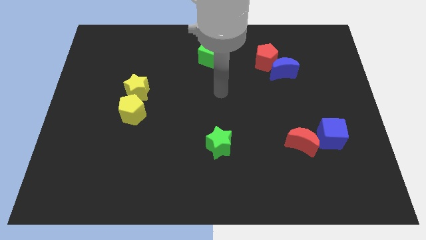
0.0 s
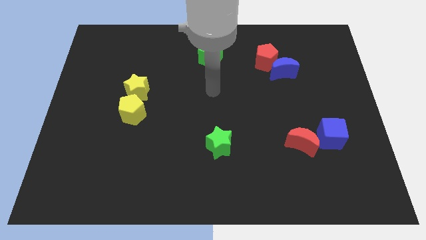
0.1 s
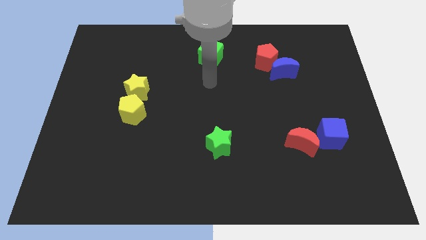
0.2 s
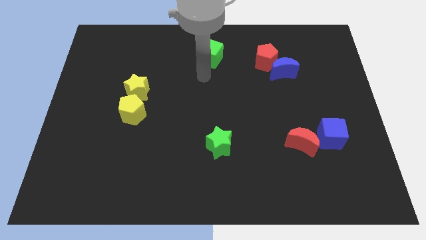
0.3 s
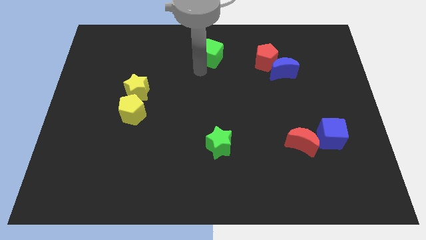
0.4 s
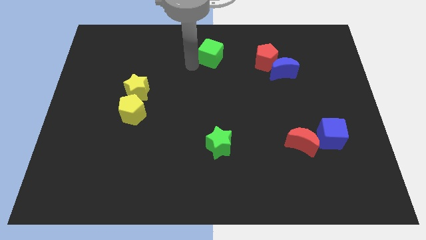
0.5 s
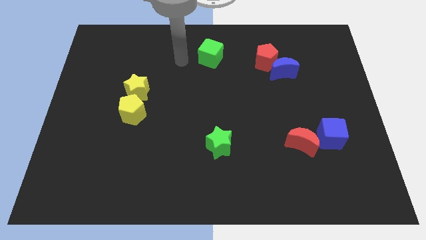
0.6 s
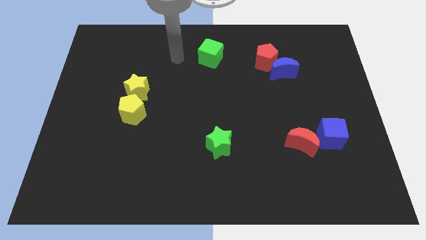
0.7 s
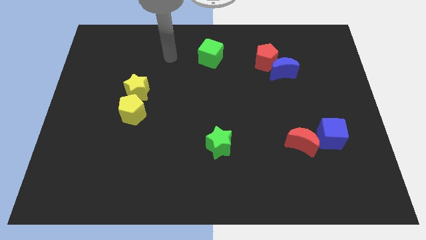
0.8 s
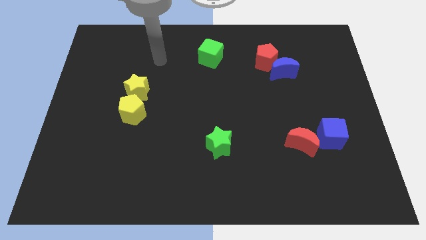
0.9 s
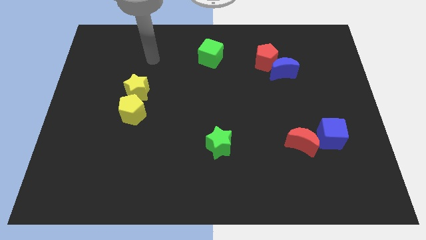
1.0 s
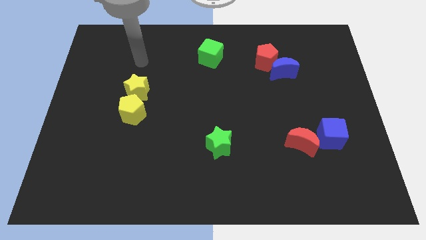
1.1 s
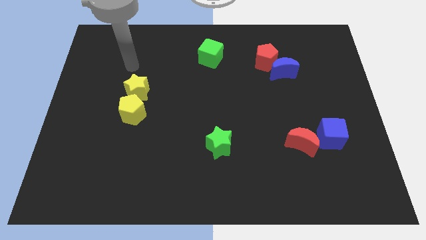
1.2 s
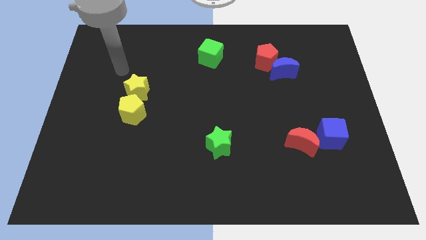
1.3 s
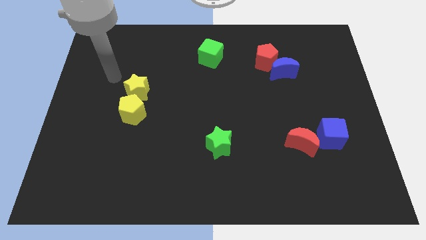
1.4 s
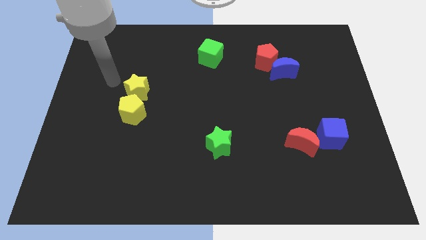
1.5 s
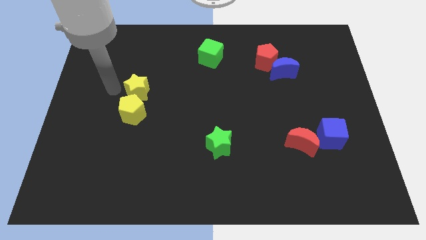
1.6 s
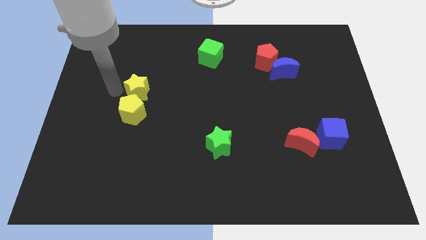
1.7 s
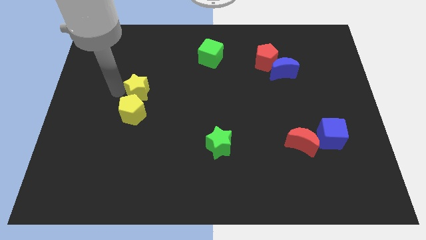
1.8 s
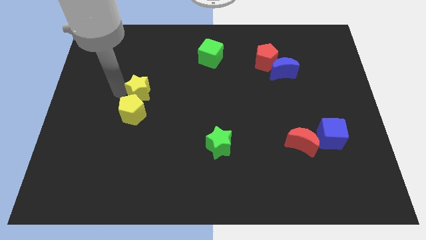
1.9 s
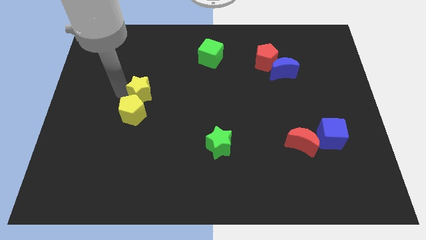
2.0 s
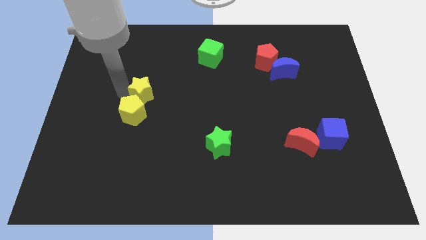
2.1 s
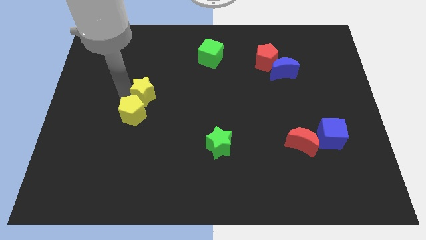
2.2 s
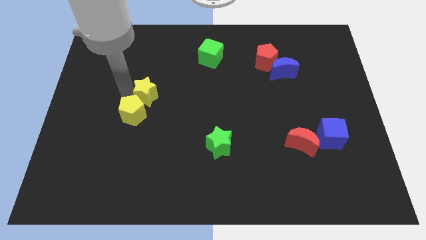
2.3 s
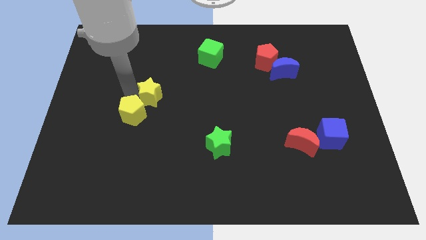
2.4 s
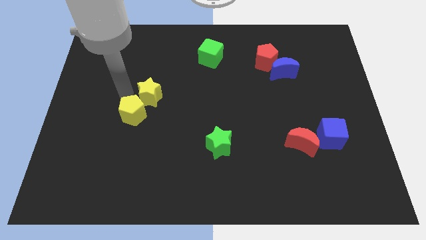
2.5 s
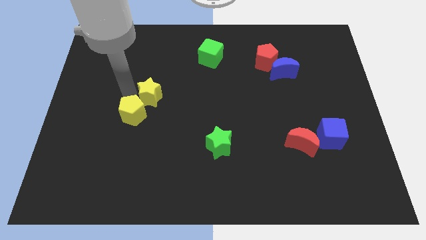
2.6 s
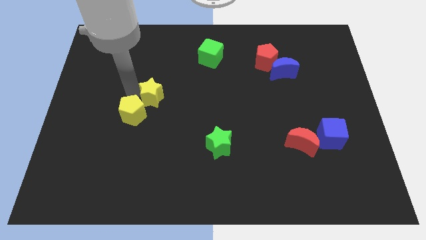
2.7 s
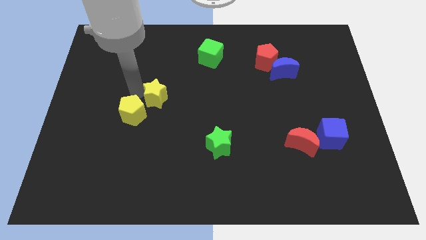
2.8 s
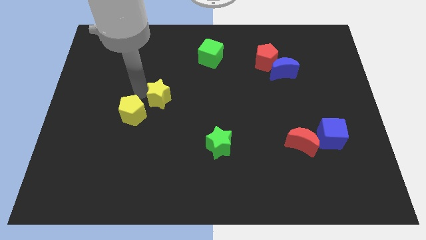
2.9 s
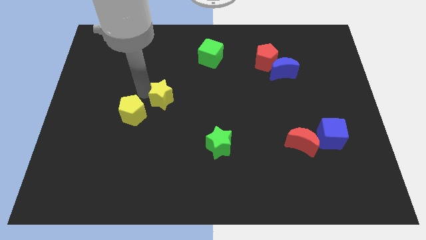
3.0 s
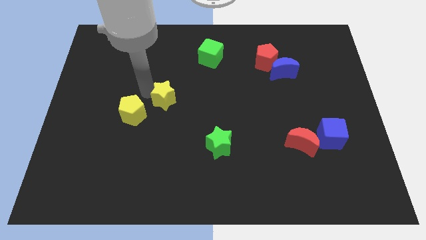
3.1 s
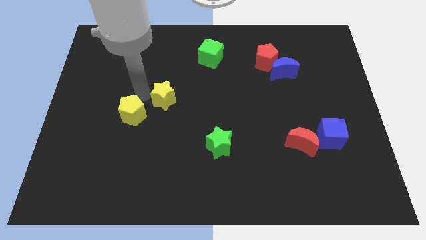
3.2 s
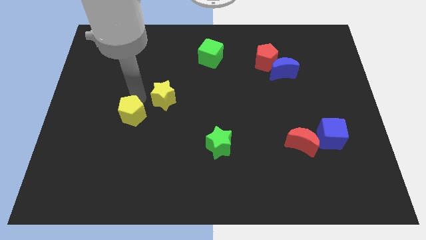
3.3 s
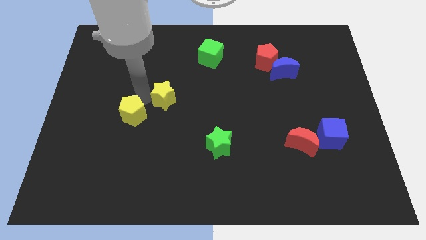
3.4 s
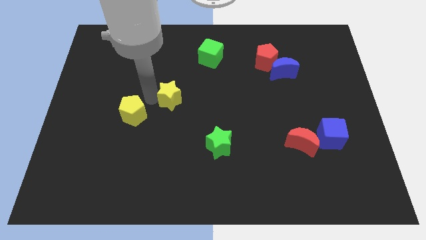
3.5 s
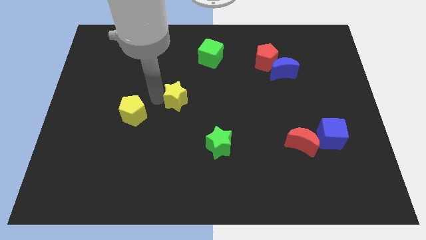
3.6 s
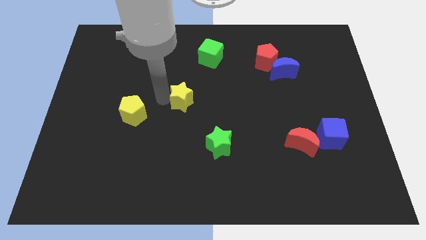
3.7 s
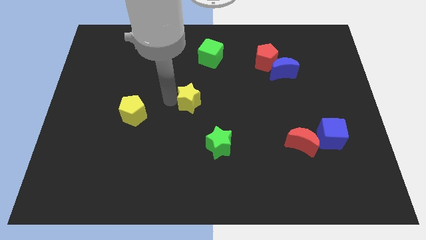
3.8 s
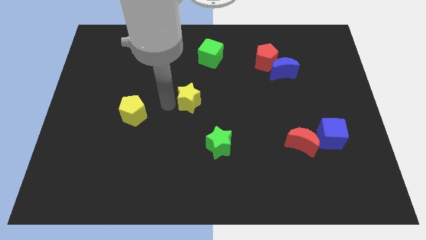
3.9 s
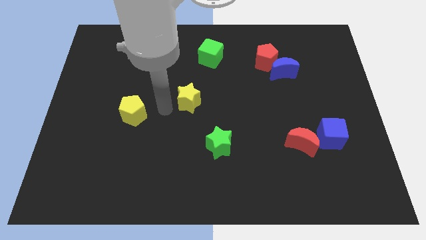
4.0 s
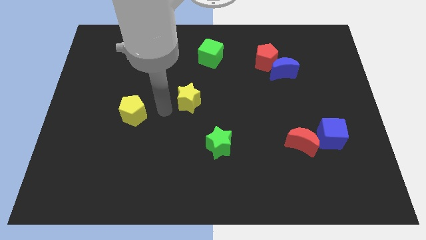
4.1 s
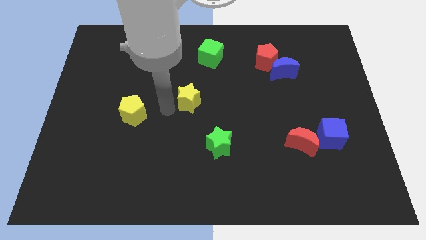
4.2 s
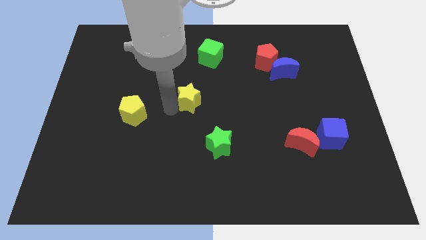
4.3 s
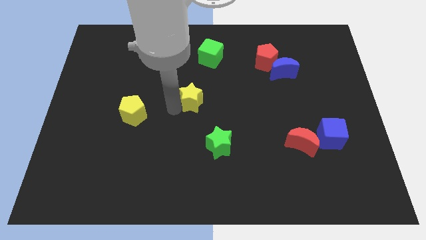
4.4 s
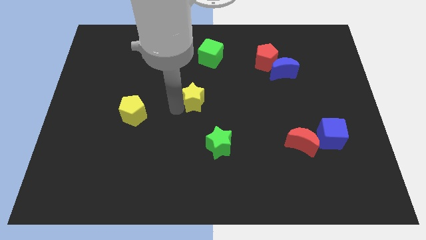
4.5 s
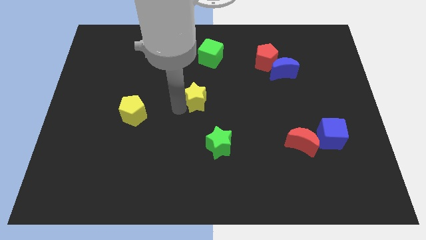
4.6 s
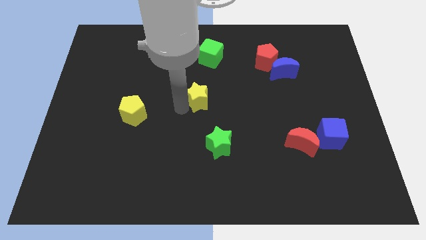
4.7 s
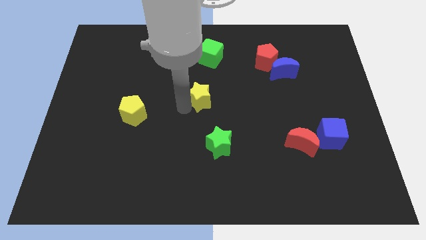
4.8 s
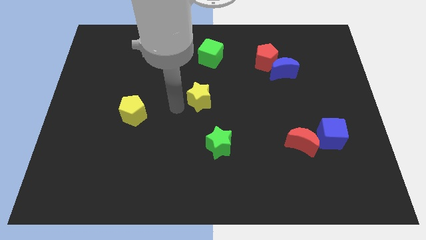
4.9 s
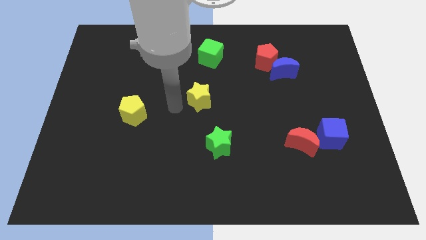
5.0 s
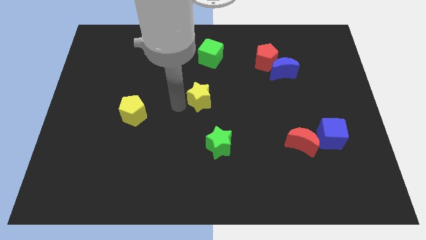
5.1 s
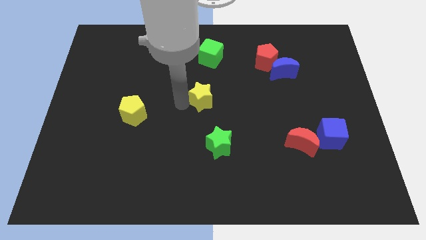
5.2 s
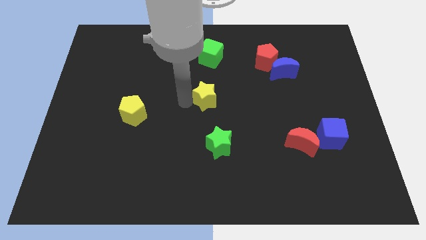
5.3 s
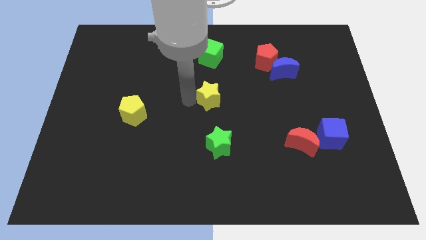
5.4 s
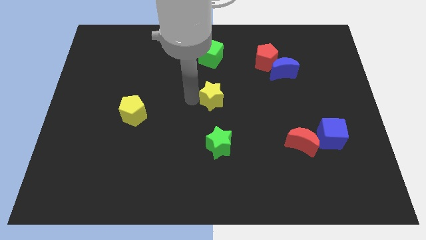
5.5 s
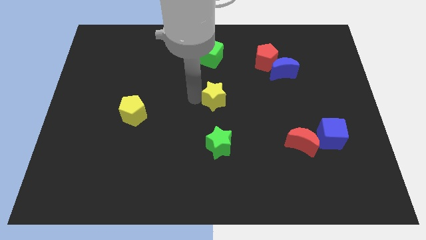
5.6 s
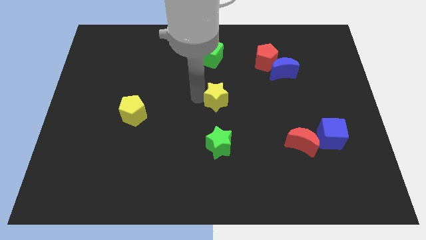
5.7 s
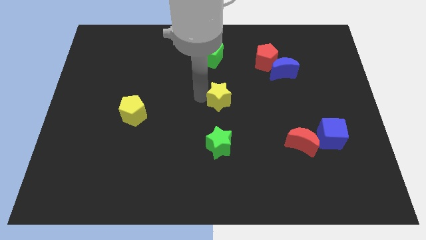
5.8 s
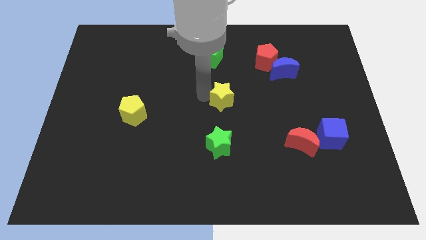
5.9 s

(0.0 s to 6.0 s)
move the yellow star right

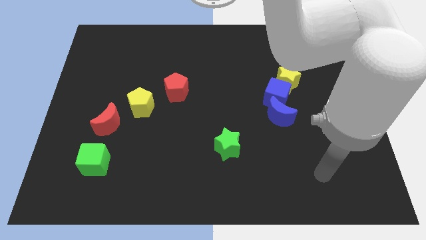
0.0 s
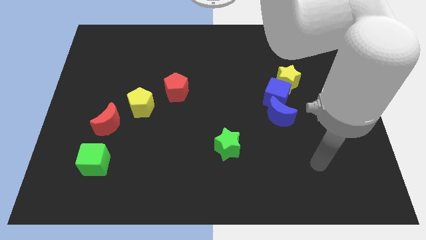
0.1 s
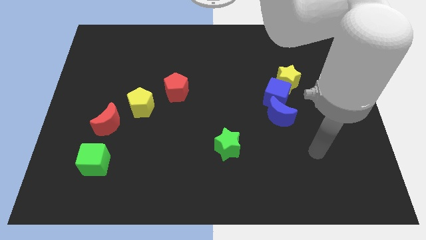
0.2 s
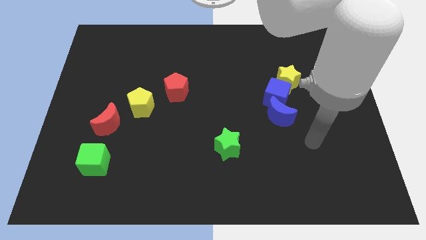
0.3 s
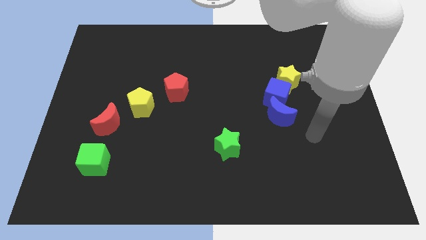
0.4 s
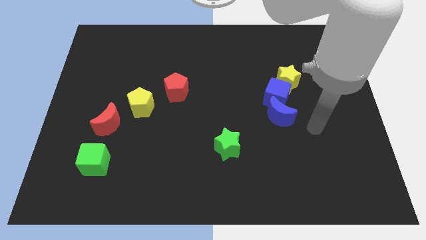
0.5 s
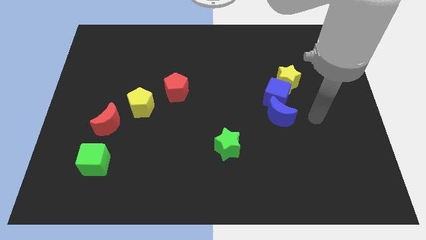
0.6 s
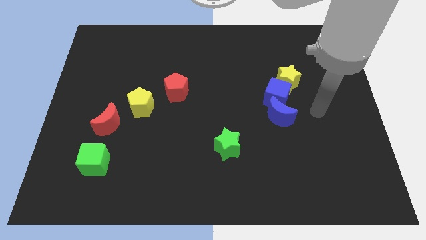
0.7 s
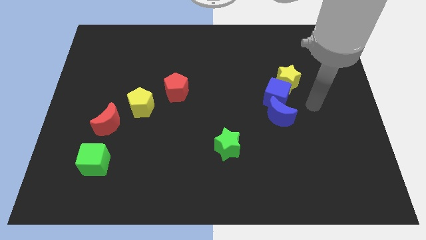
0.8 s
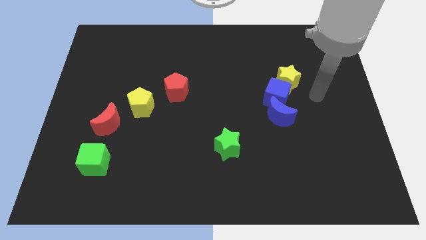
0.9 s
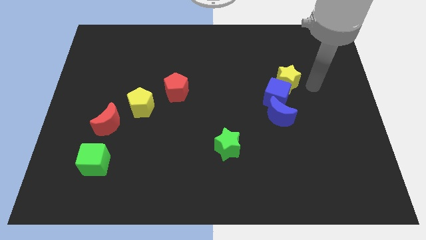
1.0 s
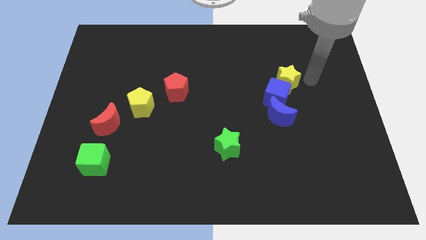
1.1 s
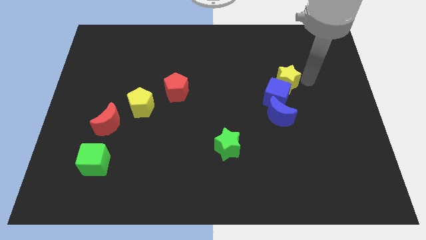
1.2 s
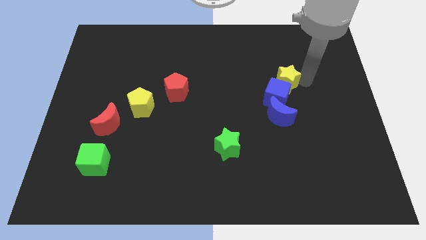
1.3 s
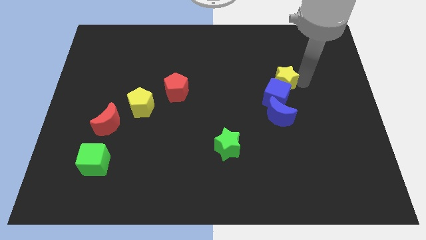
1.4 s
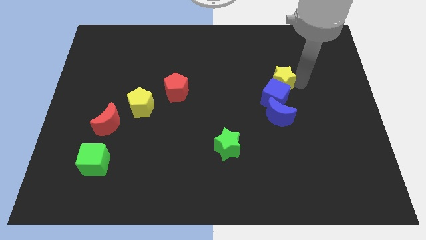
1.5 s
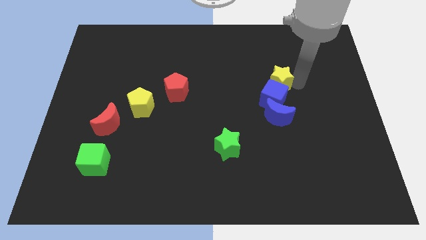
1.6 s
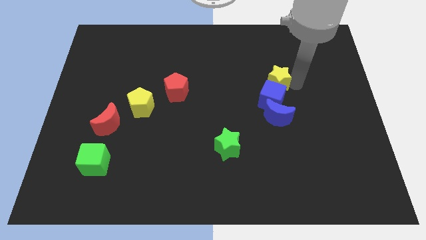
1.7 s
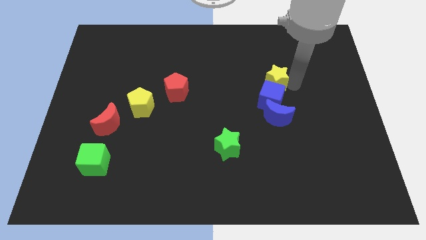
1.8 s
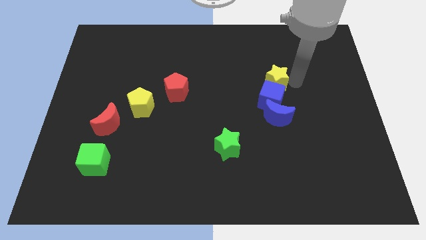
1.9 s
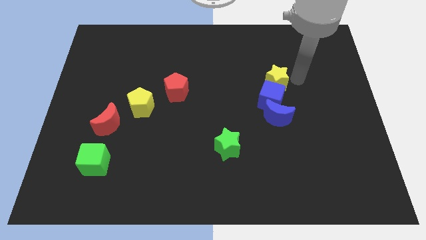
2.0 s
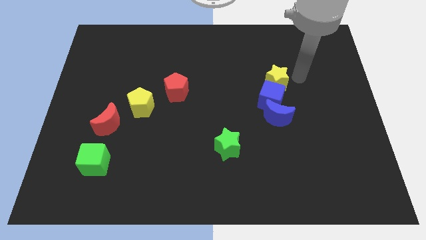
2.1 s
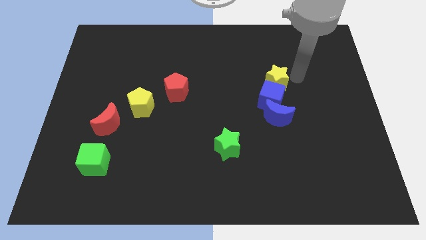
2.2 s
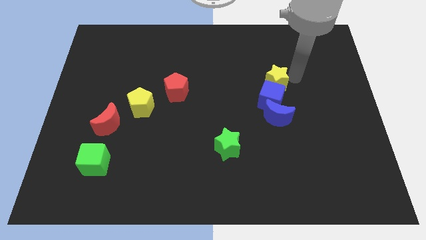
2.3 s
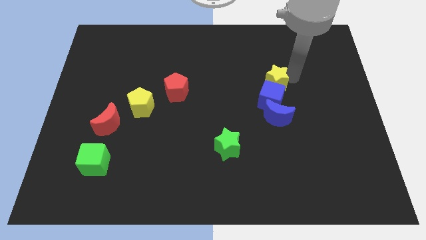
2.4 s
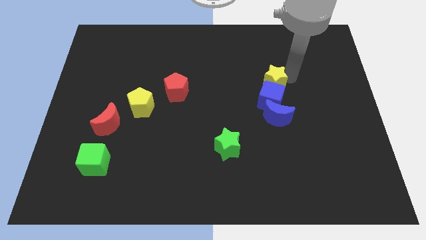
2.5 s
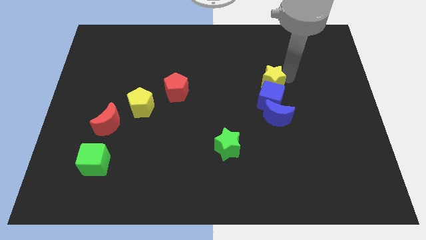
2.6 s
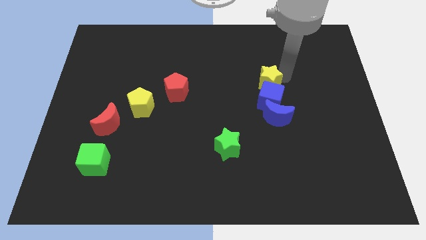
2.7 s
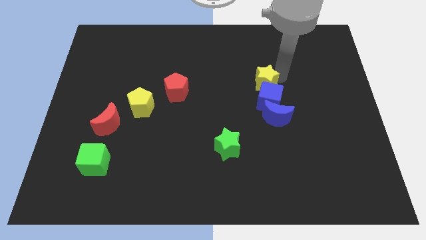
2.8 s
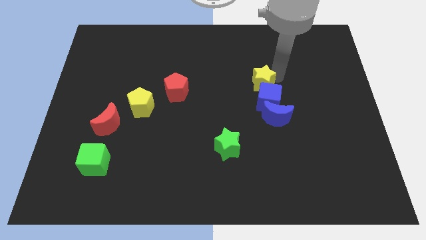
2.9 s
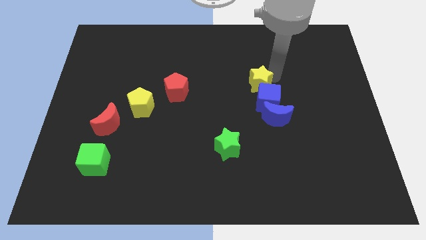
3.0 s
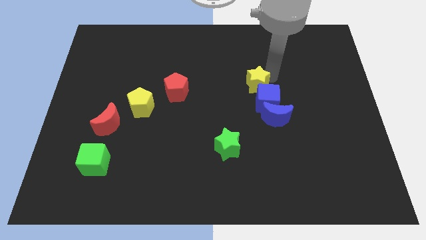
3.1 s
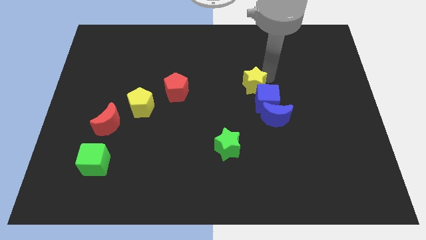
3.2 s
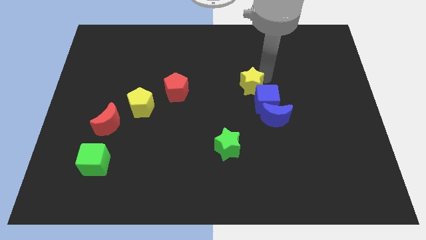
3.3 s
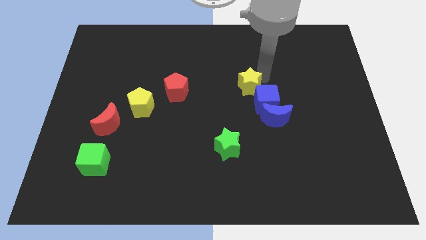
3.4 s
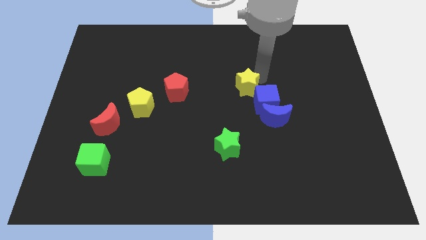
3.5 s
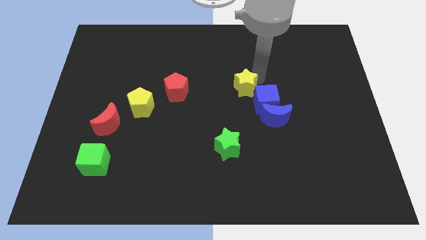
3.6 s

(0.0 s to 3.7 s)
slightly move the yellow star downwards and then left
